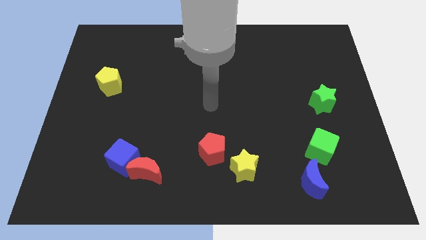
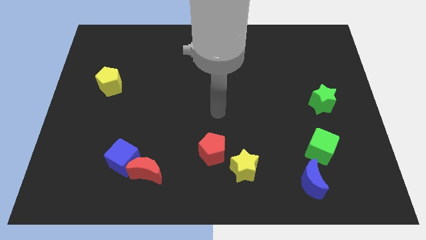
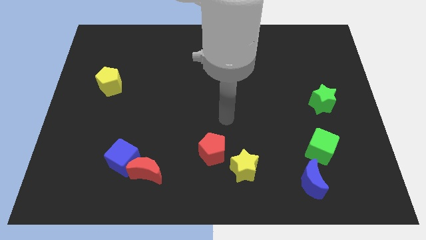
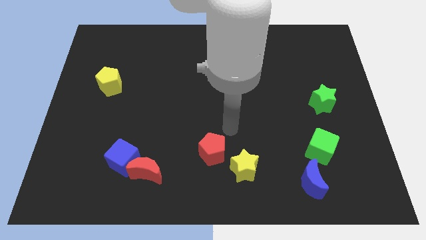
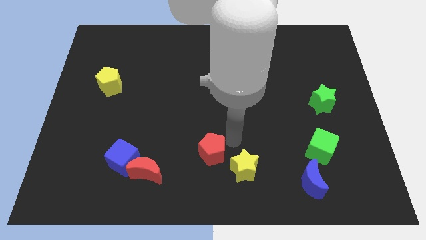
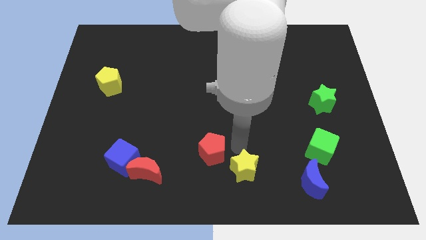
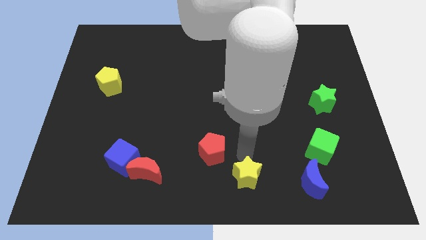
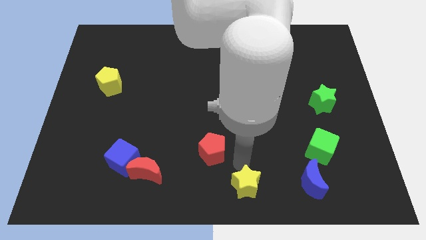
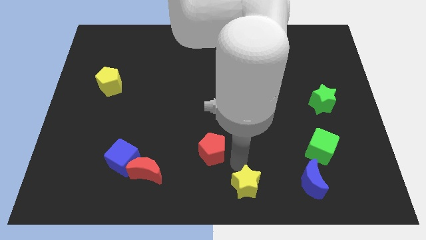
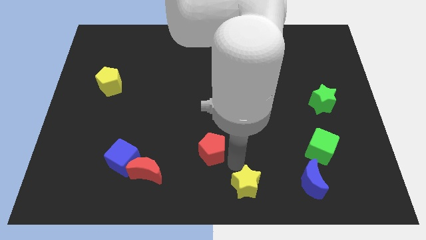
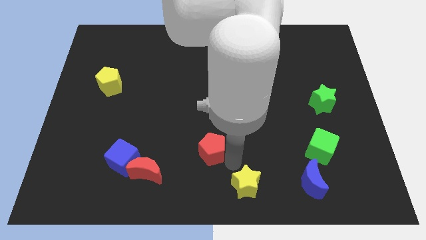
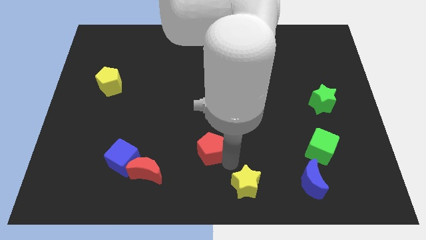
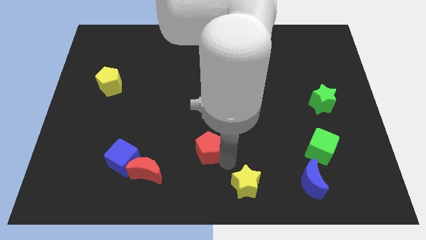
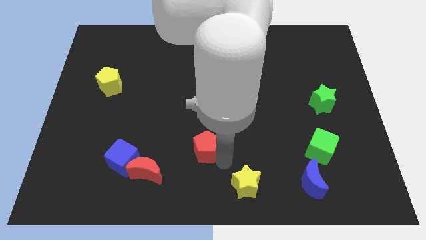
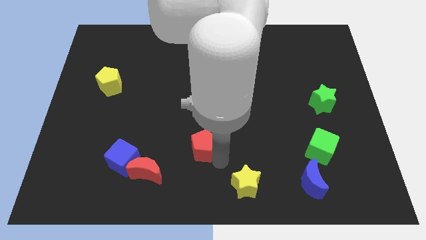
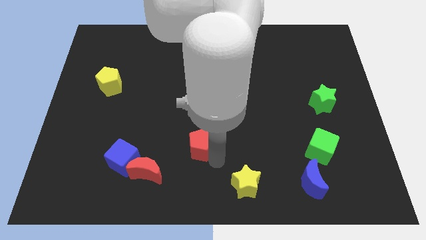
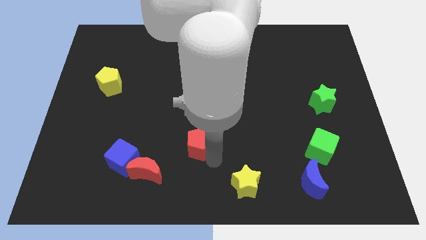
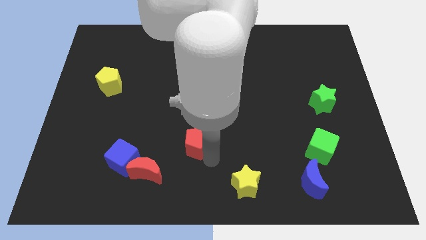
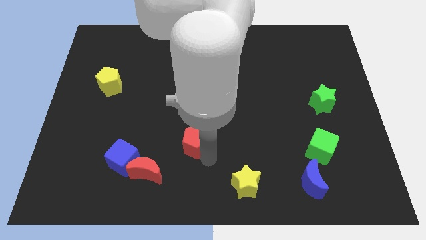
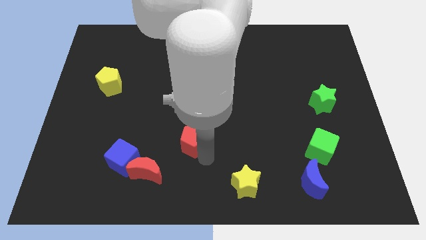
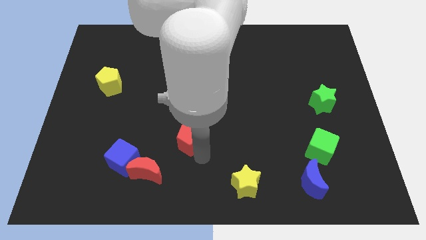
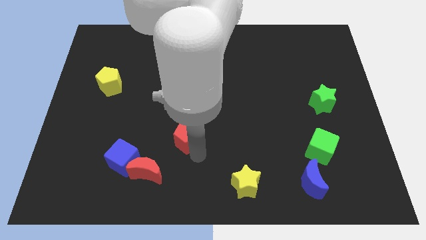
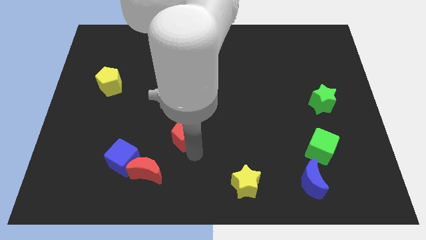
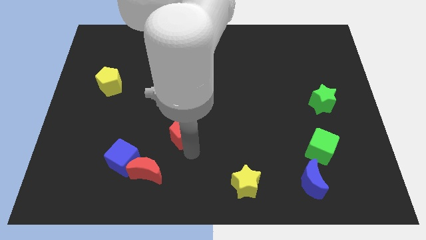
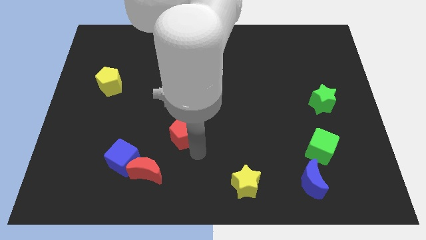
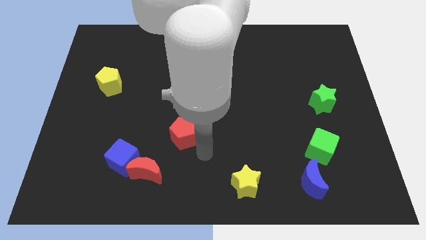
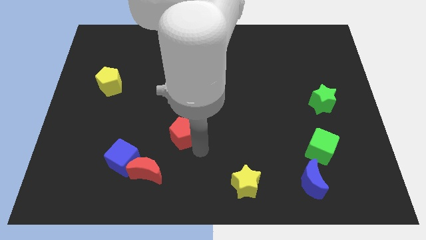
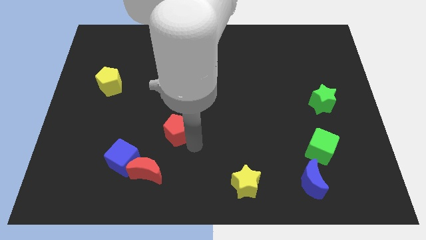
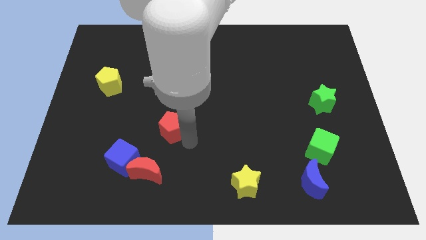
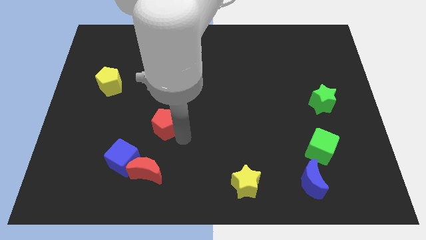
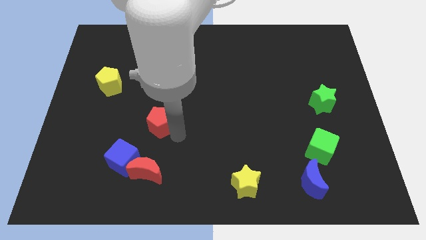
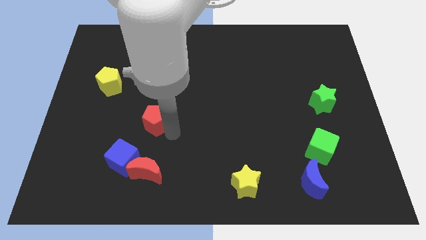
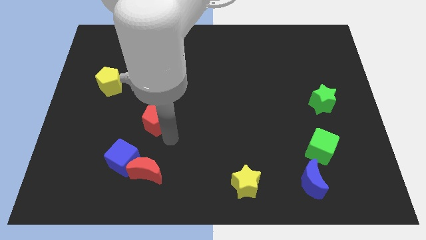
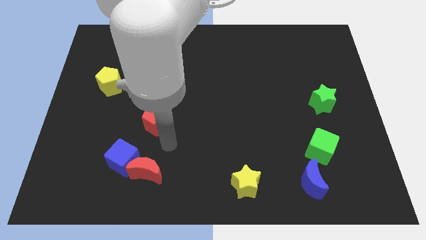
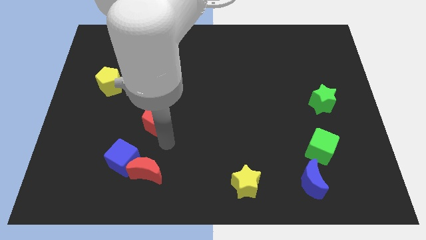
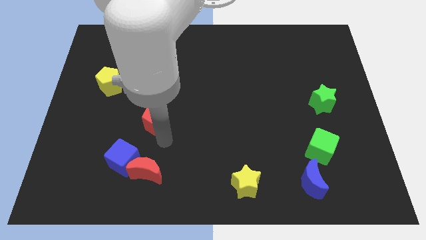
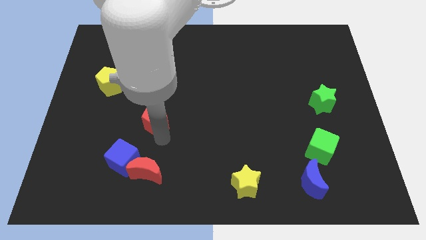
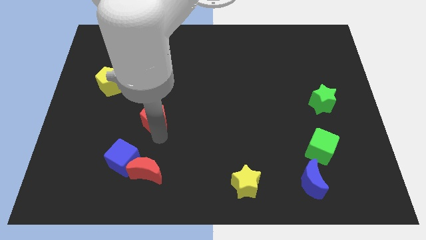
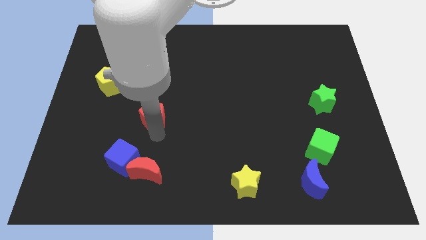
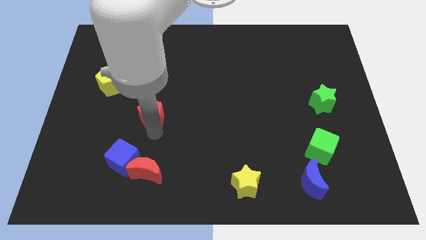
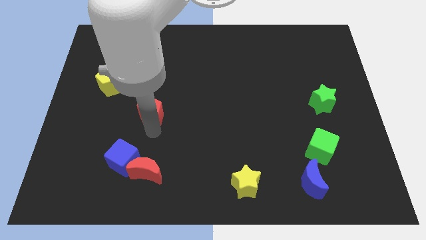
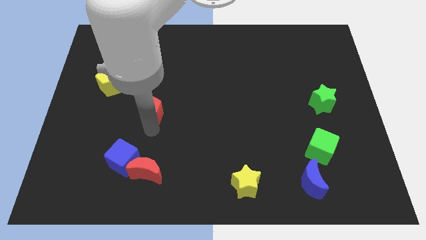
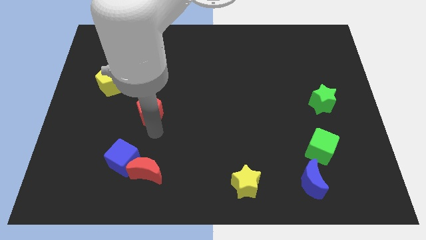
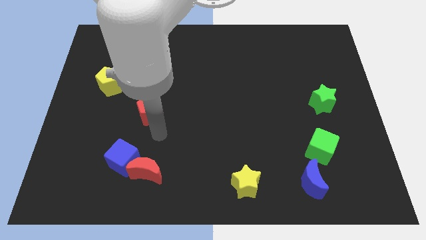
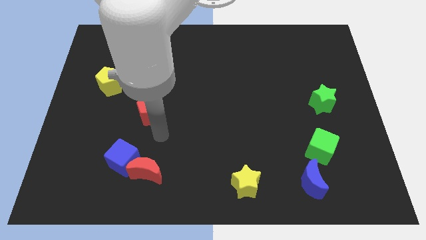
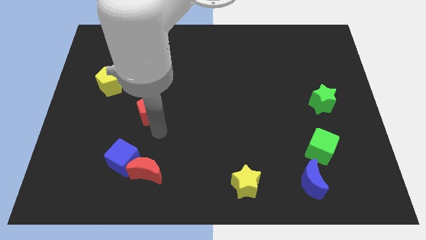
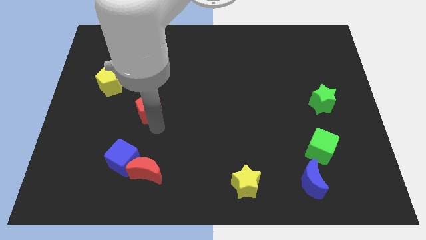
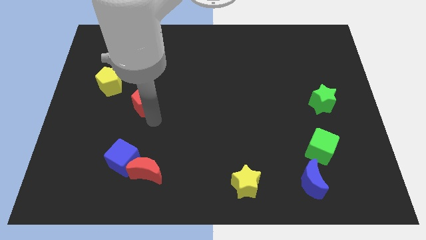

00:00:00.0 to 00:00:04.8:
push the red pentagon upwards and left diagonally

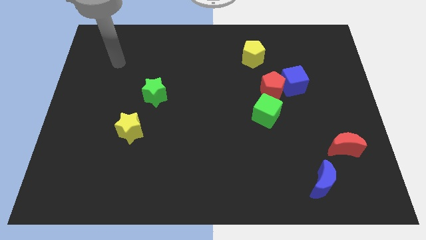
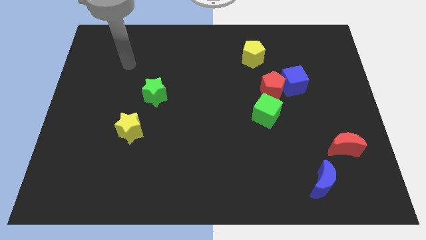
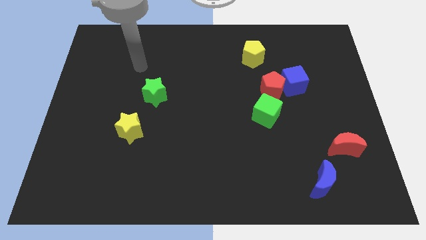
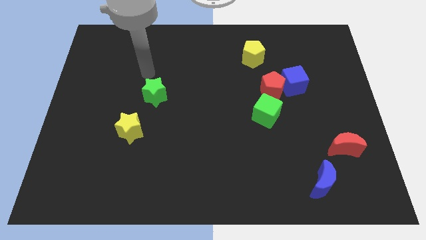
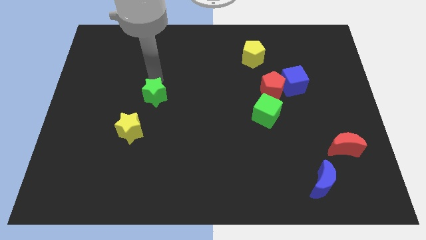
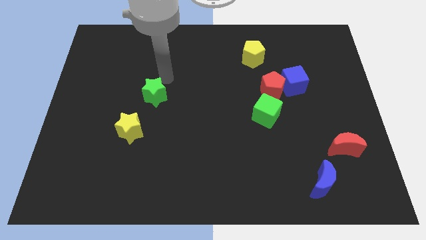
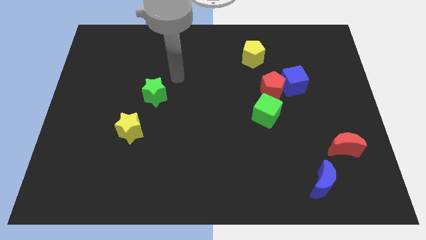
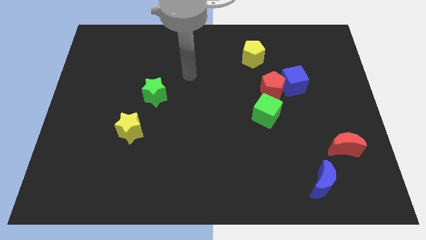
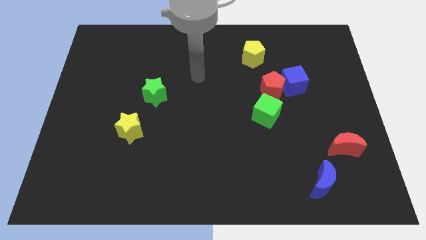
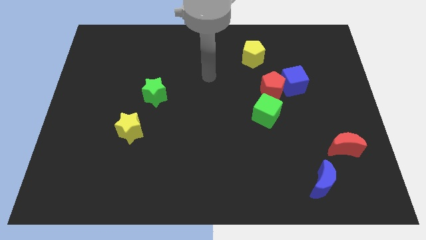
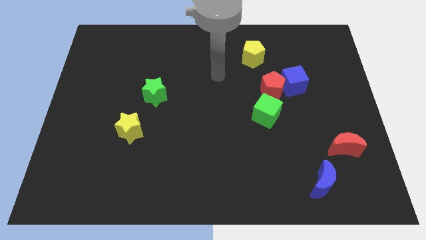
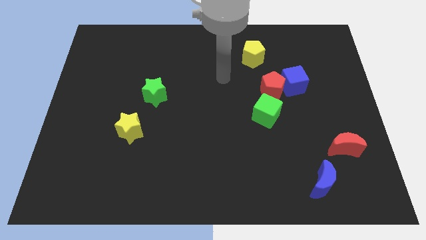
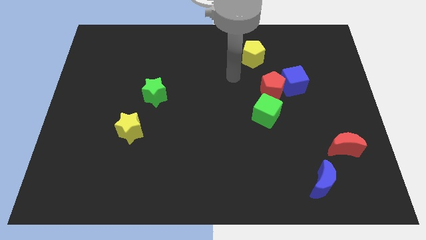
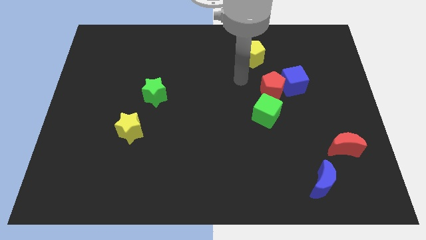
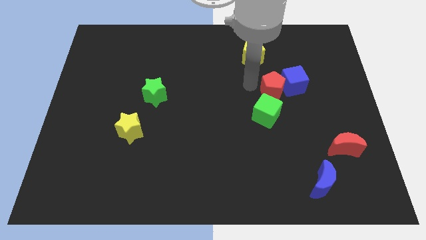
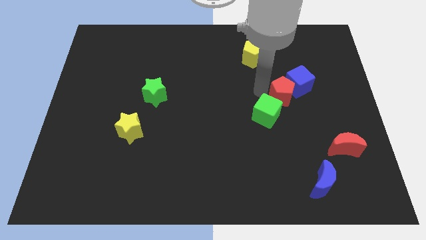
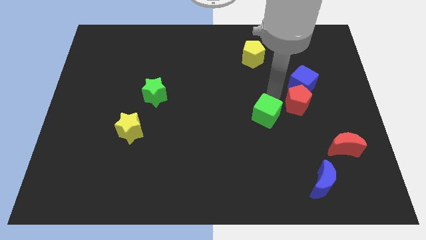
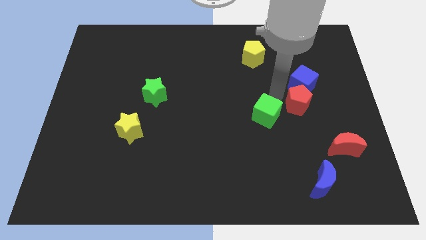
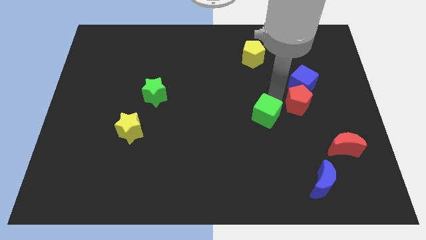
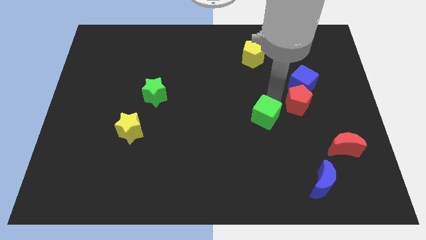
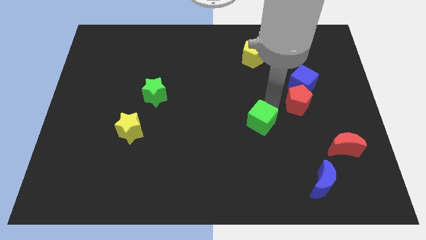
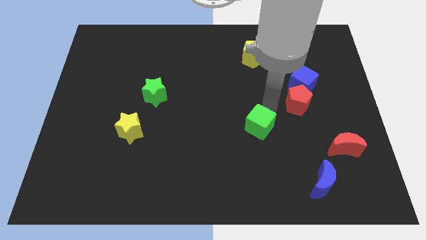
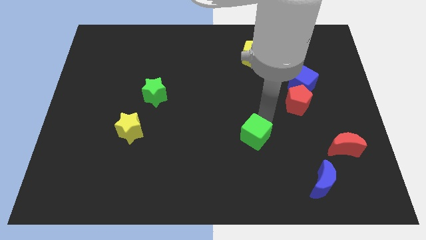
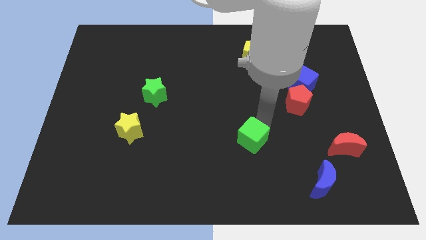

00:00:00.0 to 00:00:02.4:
slightly push the green cube diagonally downwards and to the left

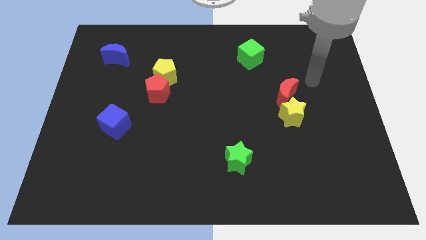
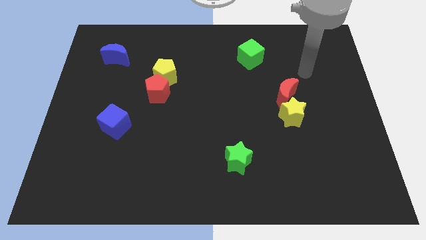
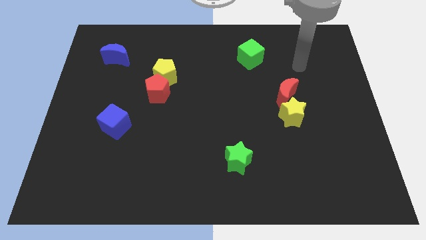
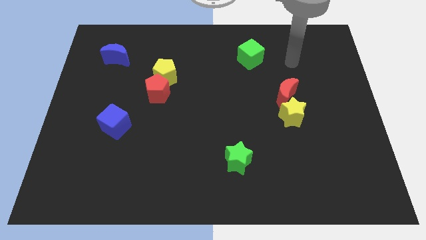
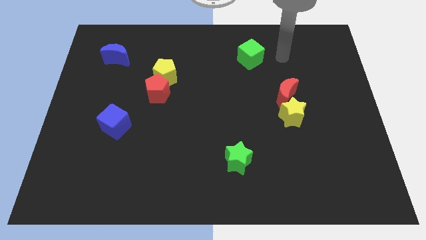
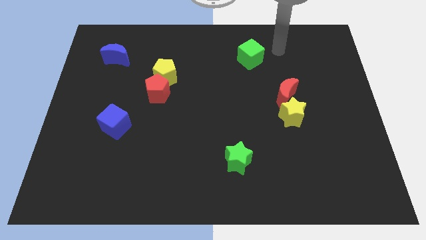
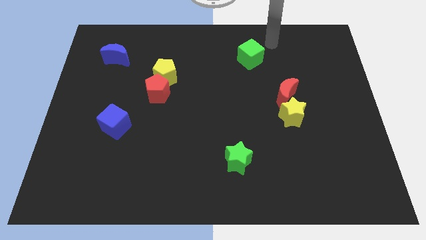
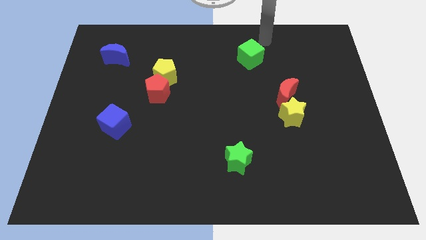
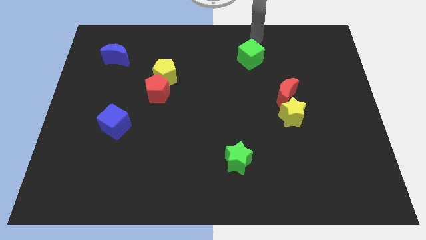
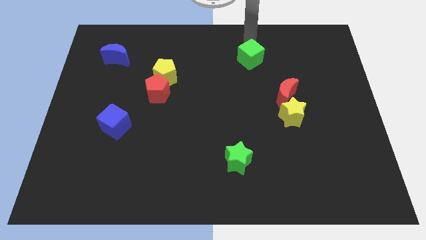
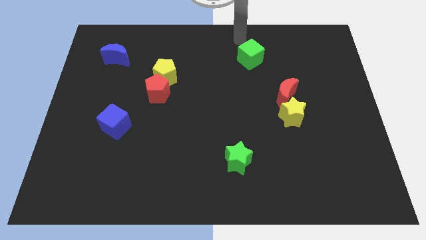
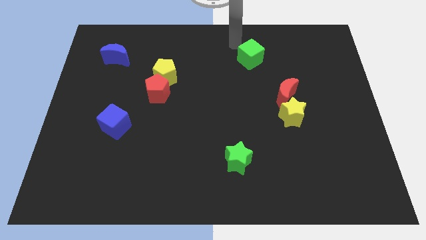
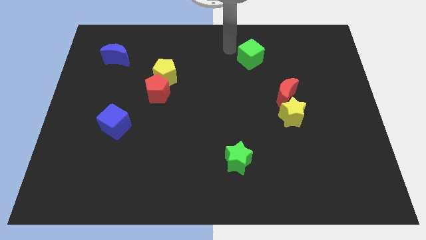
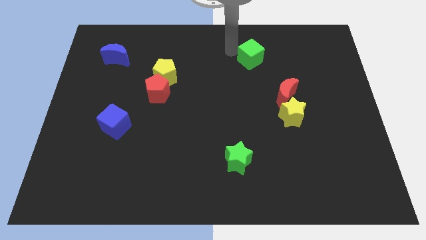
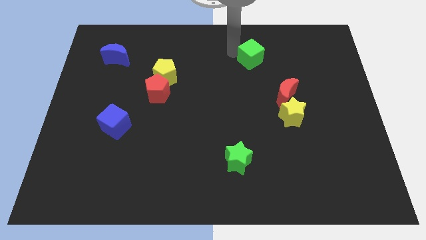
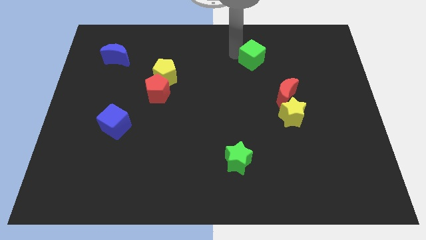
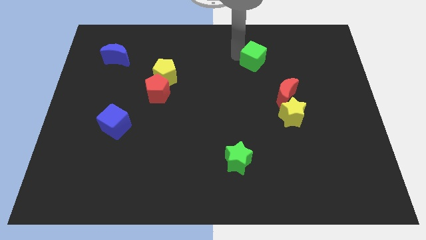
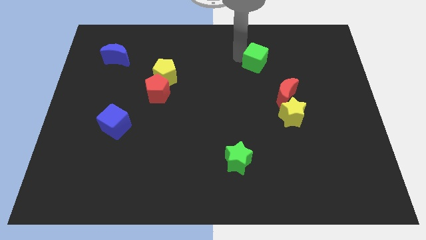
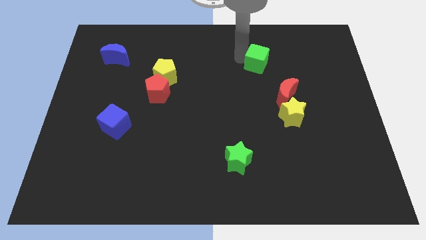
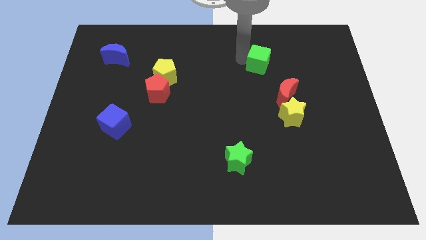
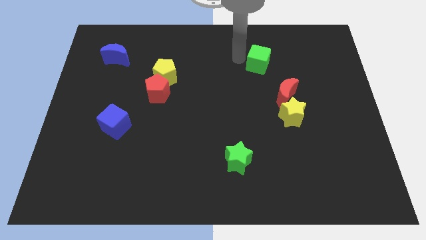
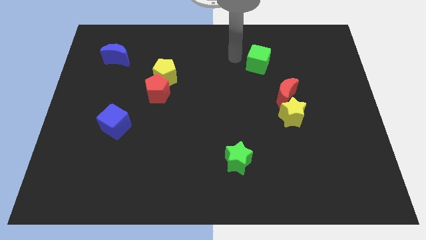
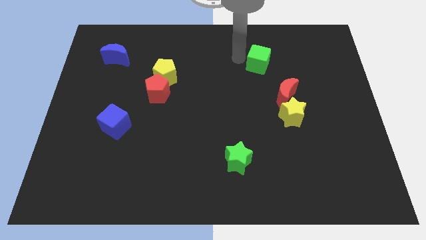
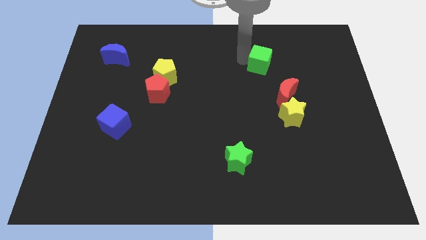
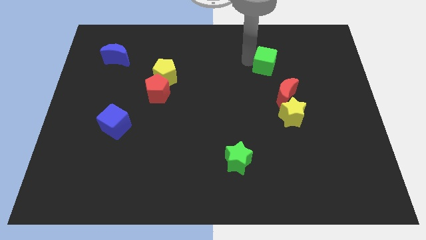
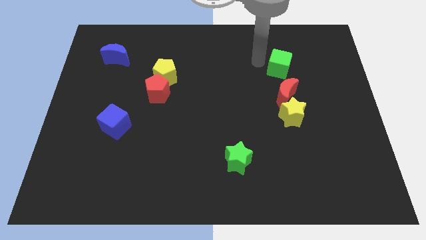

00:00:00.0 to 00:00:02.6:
slide the green cube down and right diagonally somewhat
